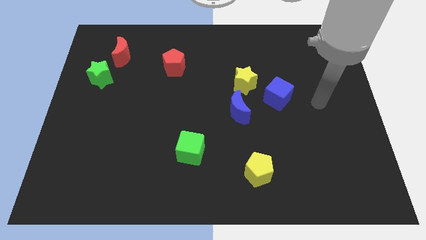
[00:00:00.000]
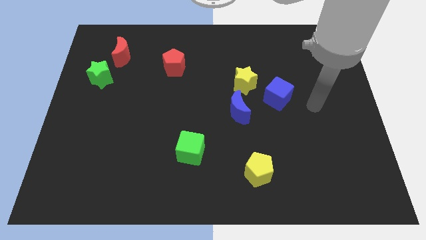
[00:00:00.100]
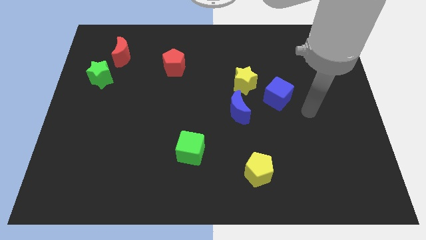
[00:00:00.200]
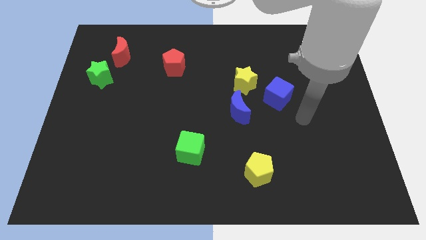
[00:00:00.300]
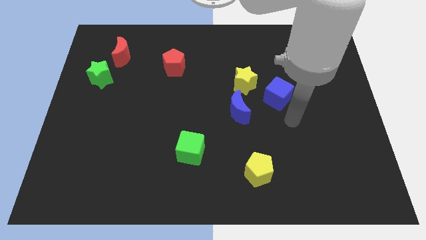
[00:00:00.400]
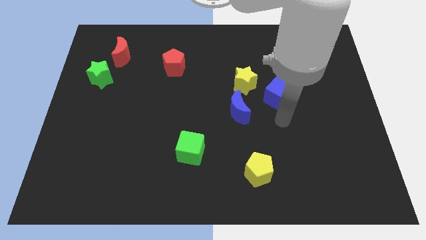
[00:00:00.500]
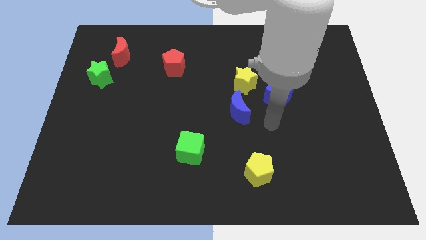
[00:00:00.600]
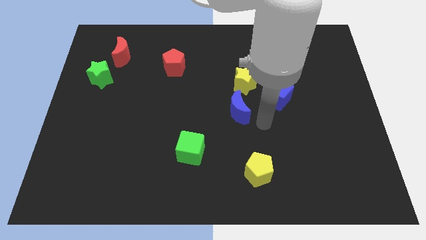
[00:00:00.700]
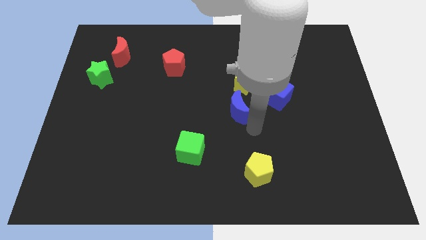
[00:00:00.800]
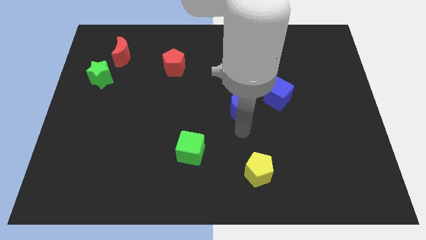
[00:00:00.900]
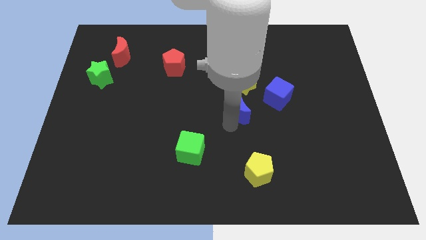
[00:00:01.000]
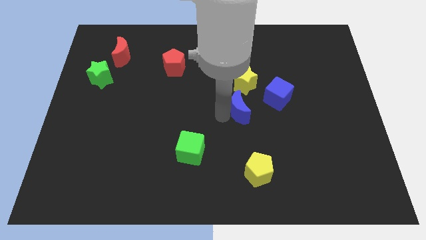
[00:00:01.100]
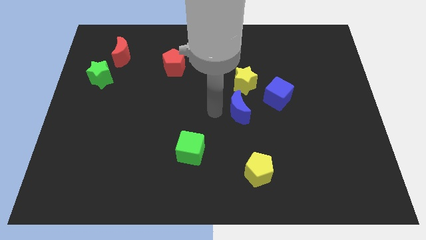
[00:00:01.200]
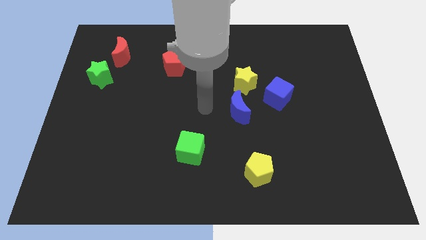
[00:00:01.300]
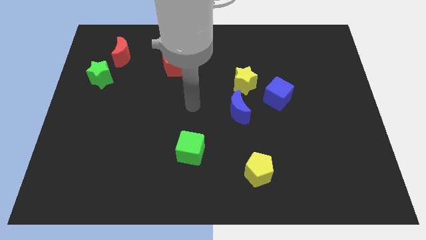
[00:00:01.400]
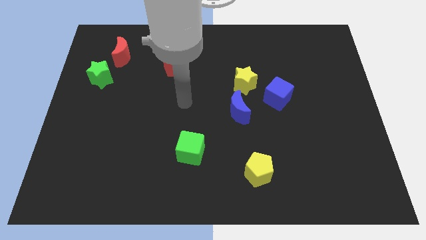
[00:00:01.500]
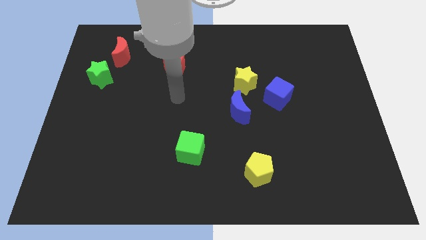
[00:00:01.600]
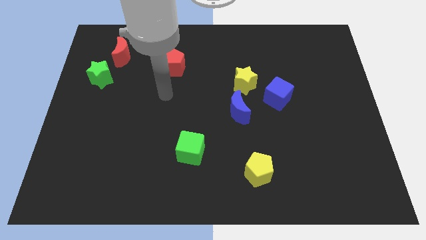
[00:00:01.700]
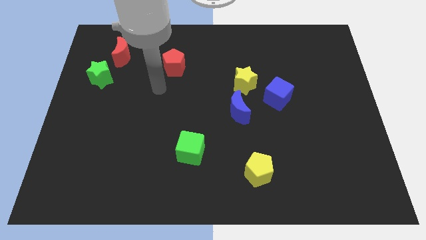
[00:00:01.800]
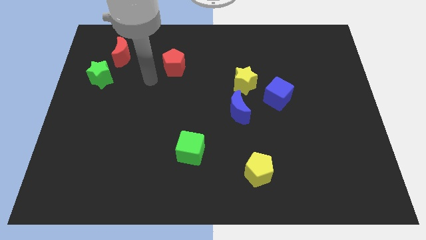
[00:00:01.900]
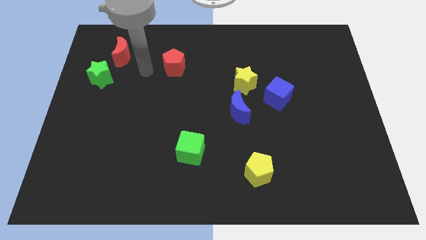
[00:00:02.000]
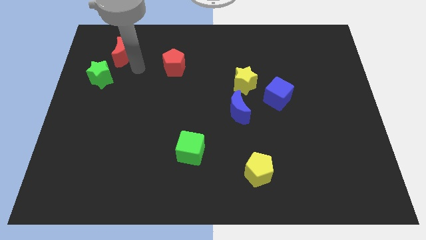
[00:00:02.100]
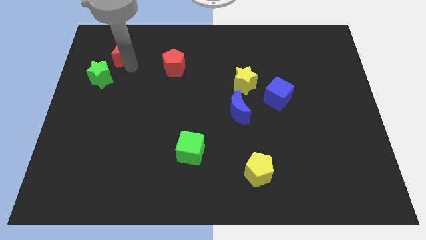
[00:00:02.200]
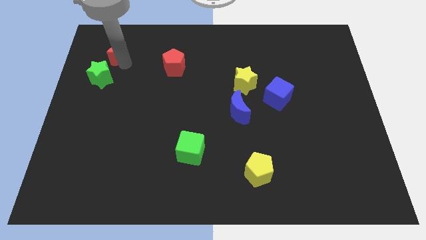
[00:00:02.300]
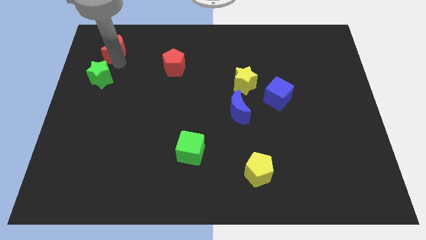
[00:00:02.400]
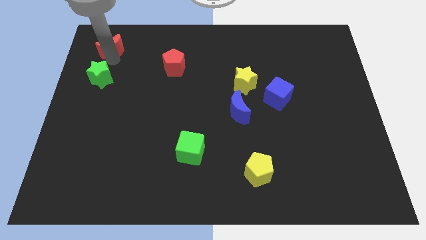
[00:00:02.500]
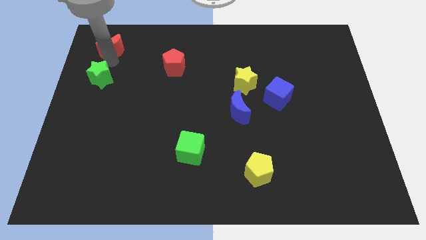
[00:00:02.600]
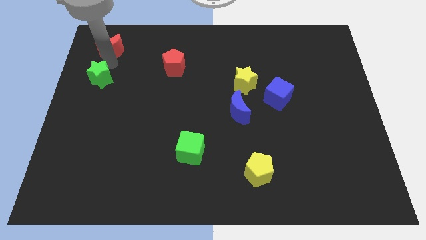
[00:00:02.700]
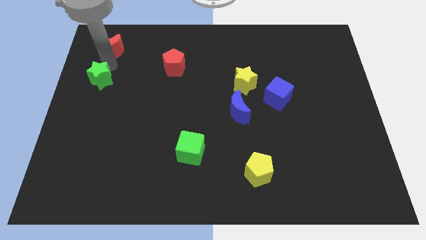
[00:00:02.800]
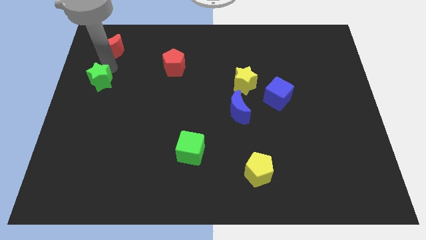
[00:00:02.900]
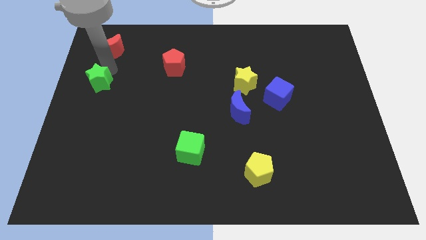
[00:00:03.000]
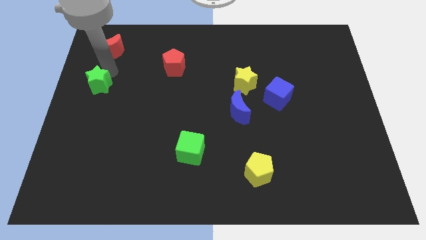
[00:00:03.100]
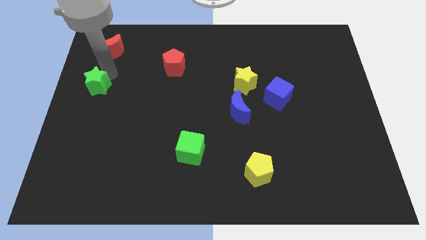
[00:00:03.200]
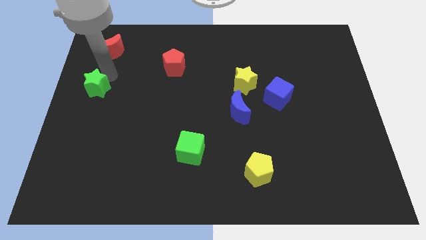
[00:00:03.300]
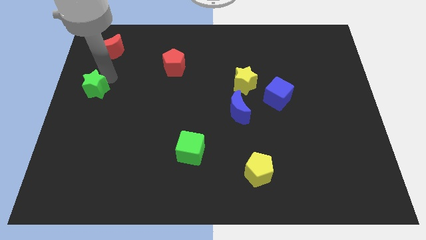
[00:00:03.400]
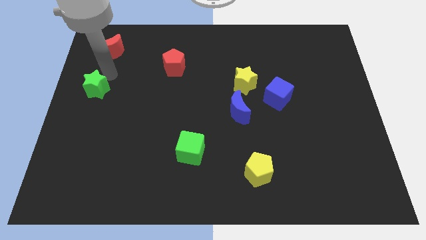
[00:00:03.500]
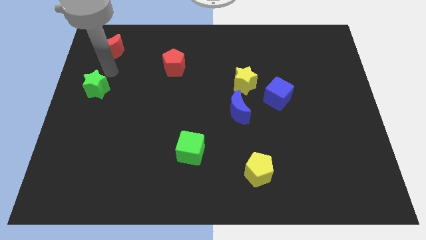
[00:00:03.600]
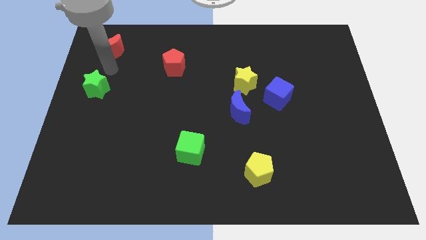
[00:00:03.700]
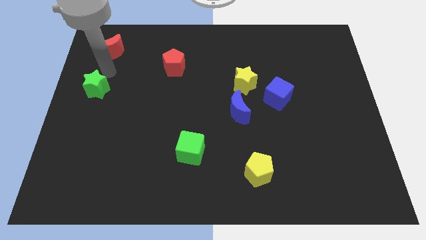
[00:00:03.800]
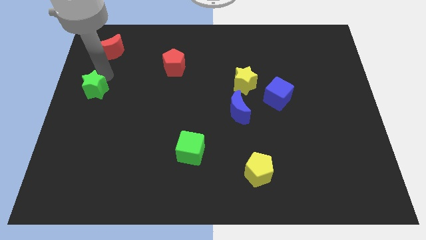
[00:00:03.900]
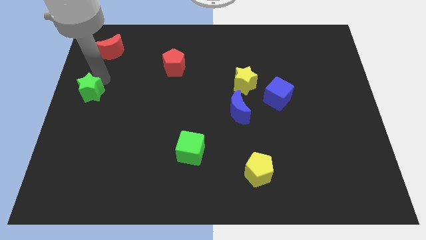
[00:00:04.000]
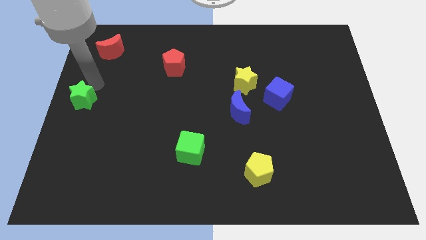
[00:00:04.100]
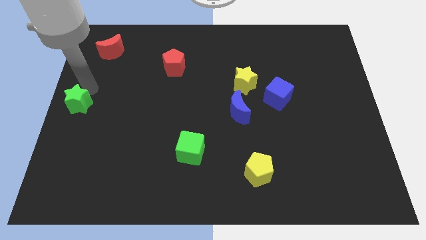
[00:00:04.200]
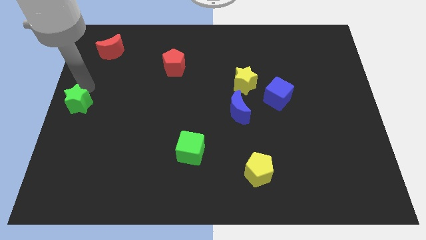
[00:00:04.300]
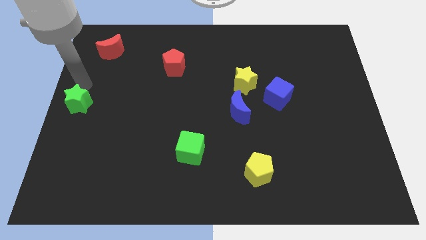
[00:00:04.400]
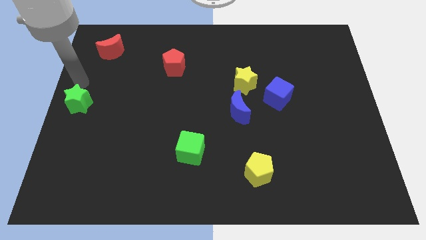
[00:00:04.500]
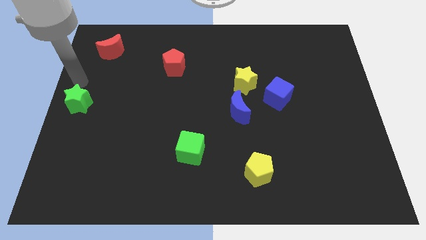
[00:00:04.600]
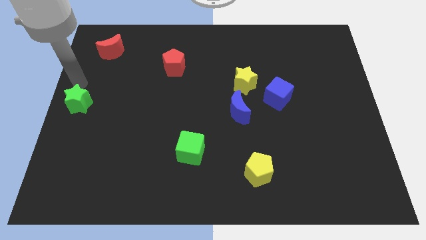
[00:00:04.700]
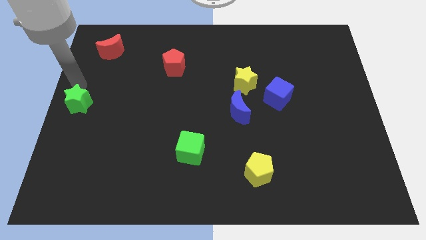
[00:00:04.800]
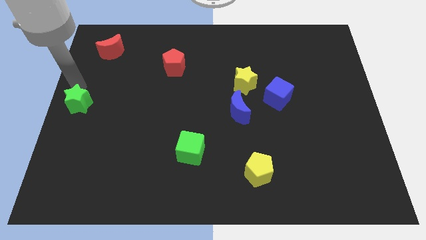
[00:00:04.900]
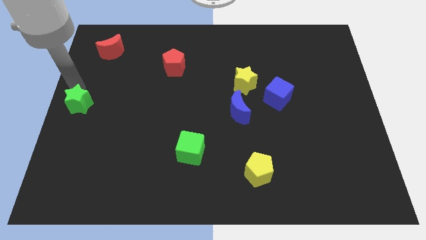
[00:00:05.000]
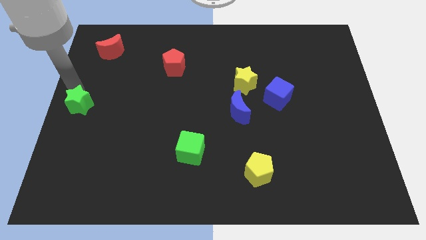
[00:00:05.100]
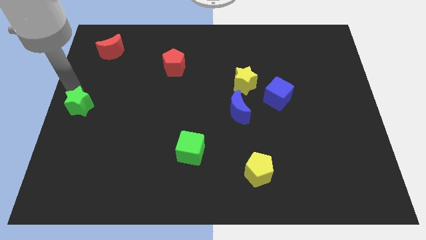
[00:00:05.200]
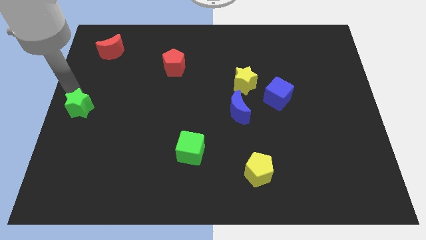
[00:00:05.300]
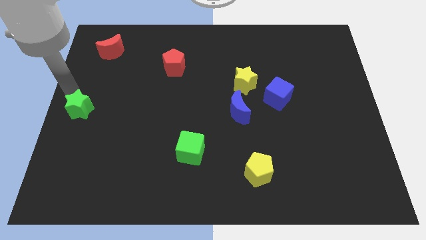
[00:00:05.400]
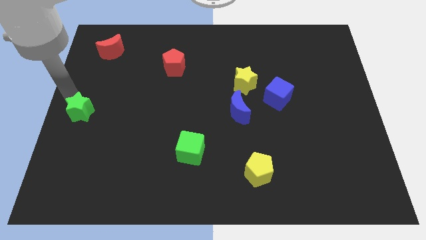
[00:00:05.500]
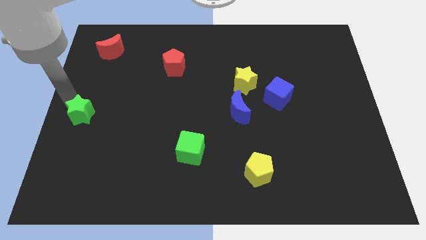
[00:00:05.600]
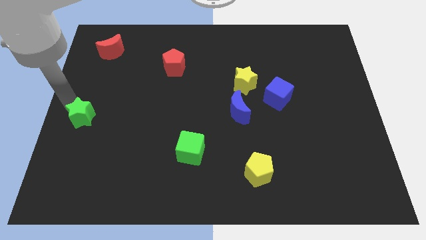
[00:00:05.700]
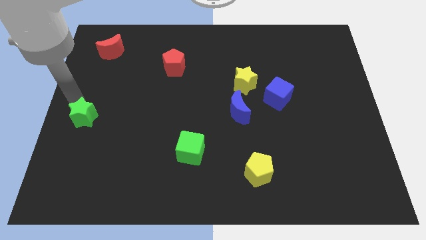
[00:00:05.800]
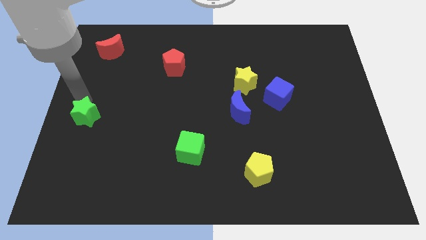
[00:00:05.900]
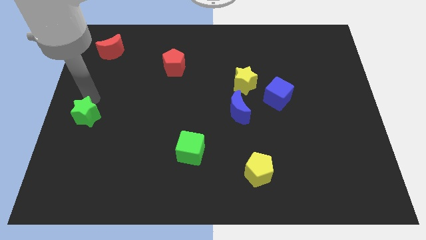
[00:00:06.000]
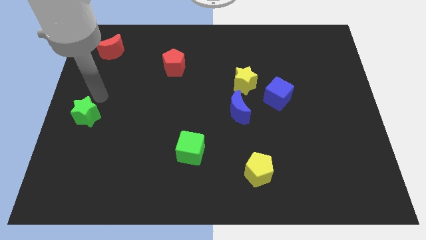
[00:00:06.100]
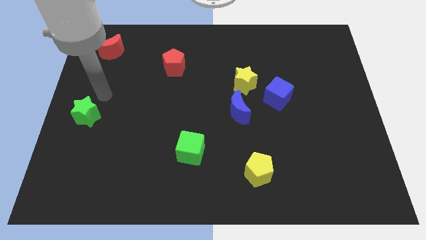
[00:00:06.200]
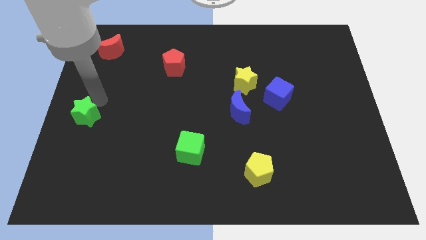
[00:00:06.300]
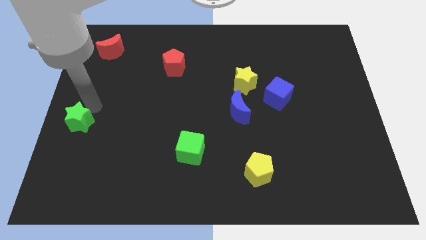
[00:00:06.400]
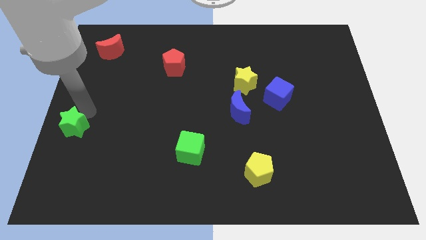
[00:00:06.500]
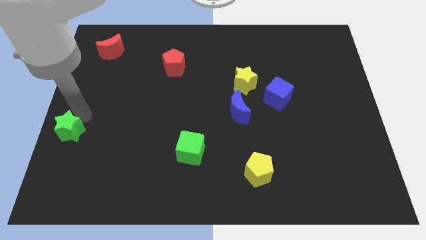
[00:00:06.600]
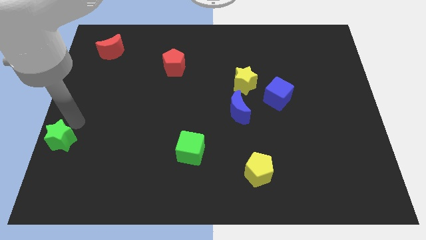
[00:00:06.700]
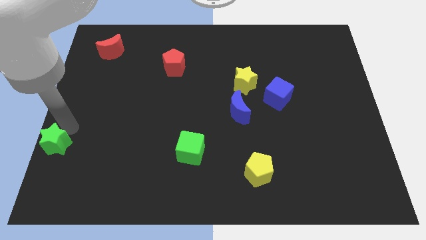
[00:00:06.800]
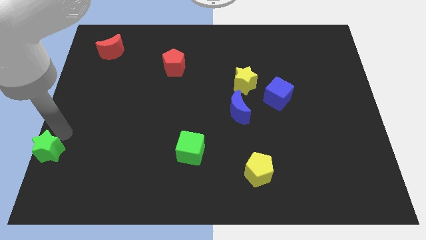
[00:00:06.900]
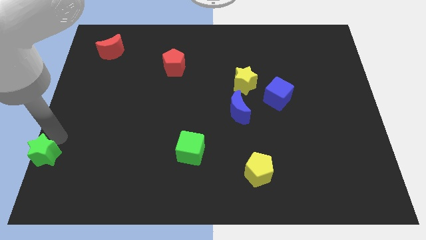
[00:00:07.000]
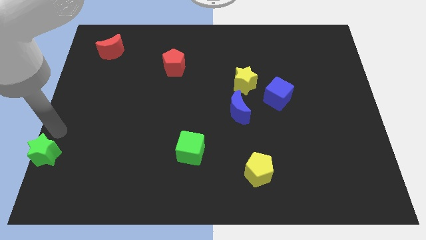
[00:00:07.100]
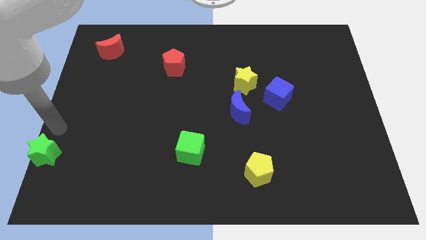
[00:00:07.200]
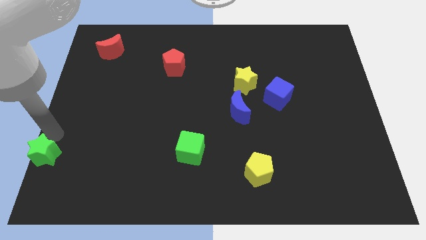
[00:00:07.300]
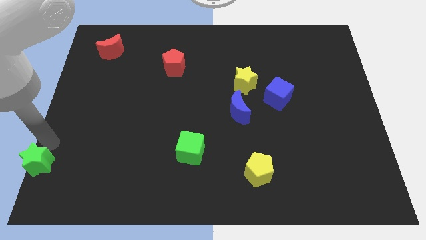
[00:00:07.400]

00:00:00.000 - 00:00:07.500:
push the green star to the bottom left
